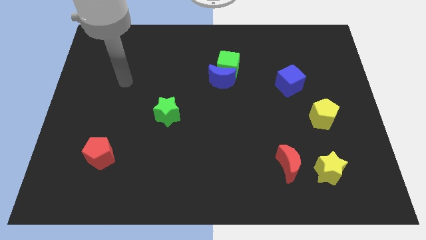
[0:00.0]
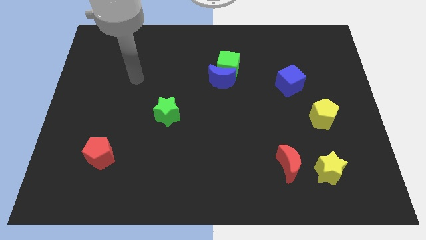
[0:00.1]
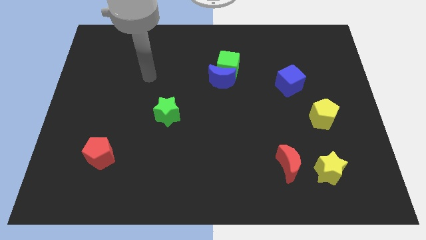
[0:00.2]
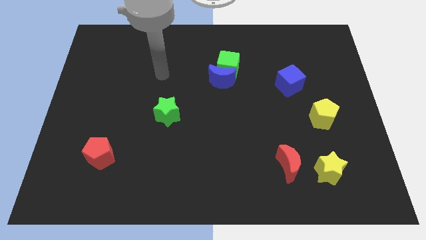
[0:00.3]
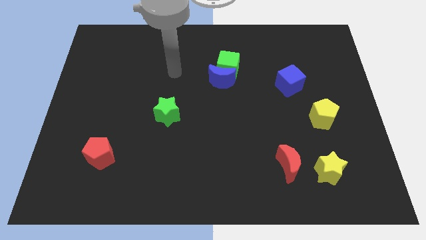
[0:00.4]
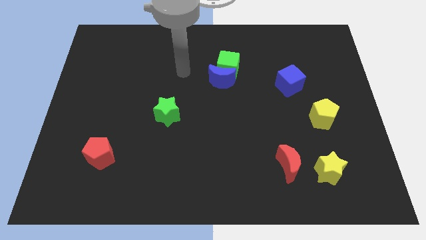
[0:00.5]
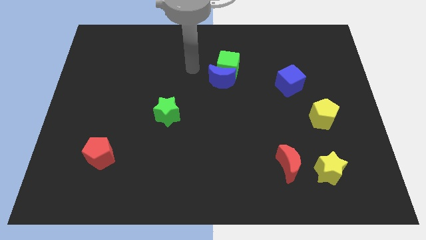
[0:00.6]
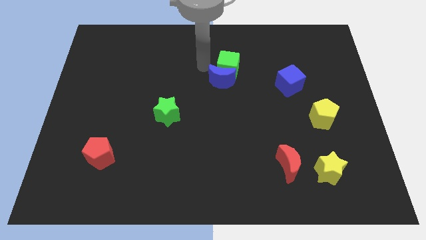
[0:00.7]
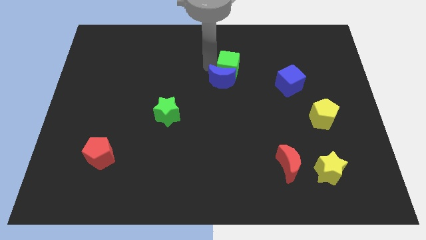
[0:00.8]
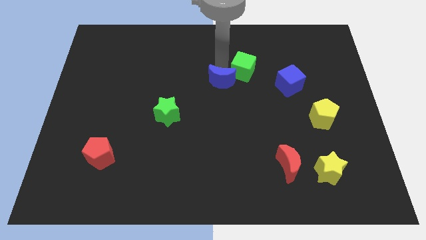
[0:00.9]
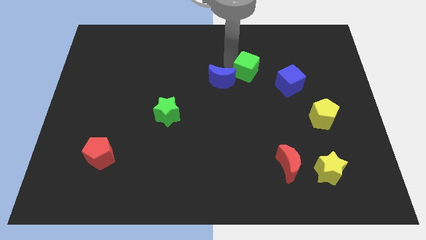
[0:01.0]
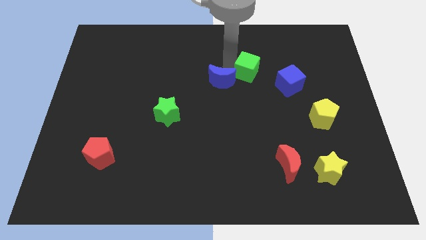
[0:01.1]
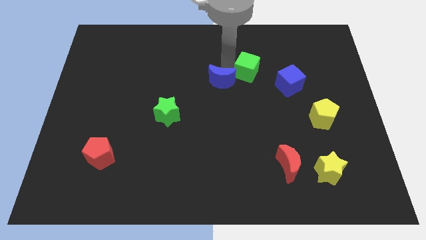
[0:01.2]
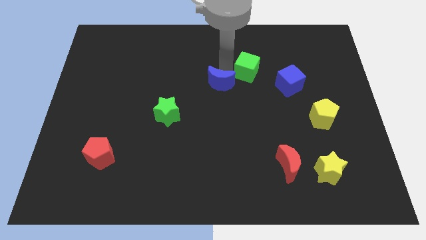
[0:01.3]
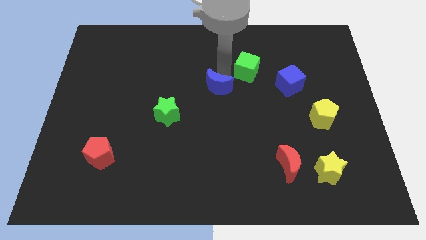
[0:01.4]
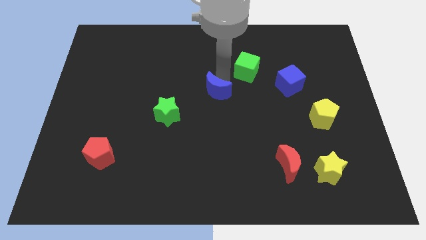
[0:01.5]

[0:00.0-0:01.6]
pull the blue moon apart from the green cube

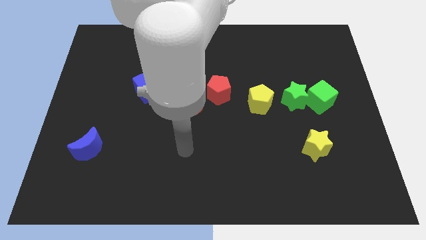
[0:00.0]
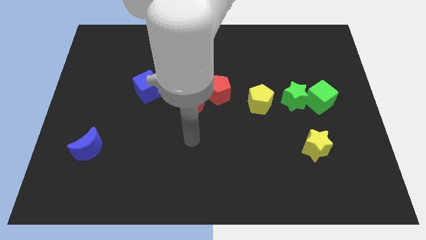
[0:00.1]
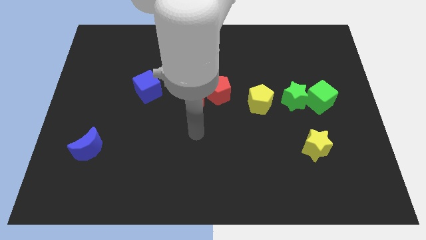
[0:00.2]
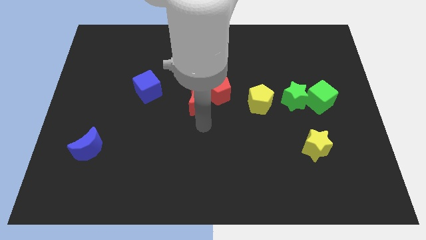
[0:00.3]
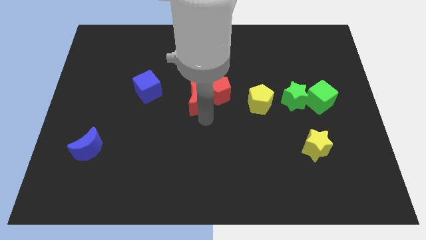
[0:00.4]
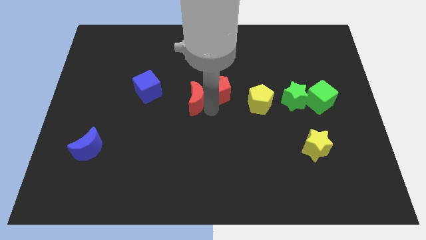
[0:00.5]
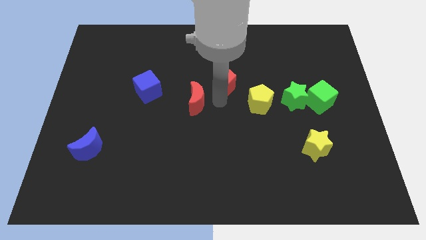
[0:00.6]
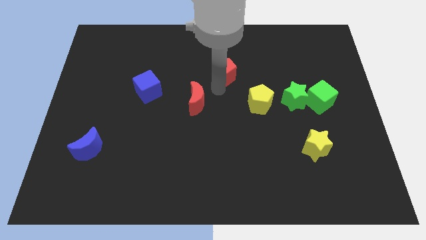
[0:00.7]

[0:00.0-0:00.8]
pull the red moon apart from the red pentagon

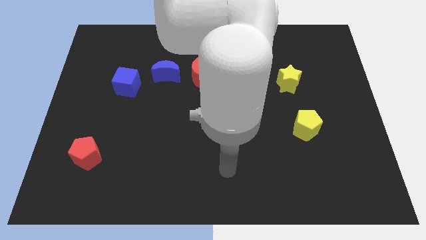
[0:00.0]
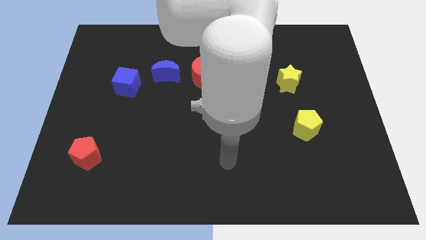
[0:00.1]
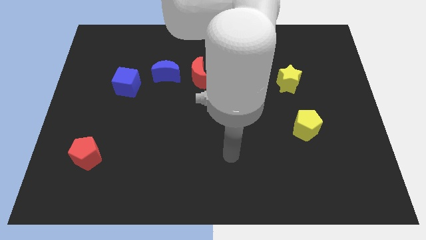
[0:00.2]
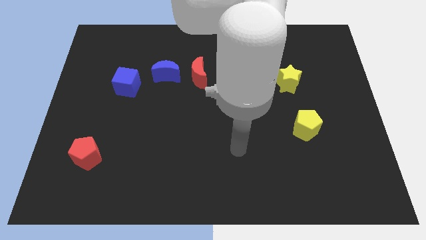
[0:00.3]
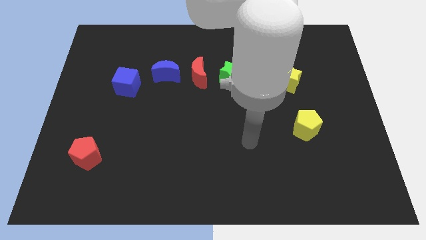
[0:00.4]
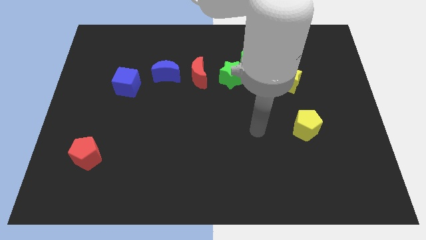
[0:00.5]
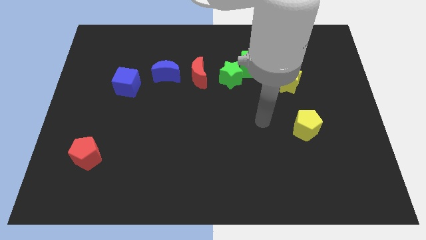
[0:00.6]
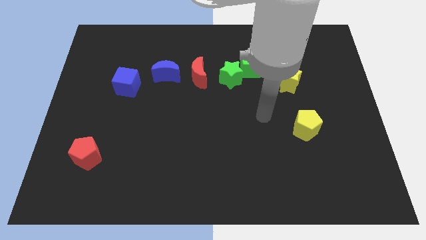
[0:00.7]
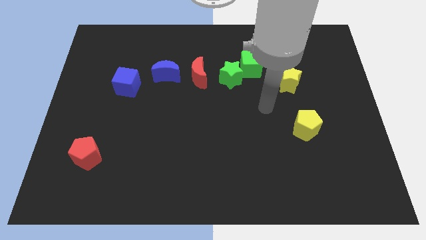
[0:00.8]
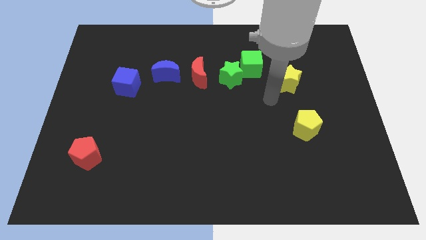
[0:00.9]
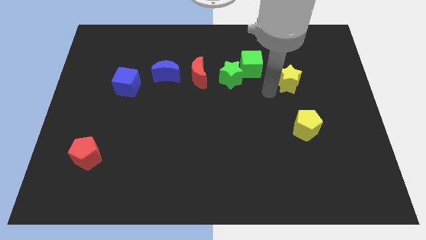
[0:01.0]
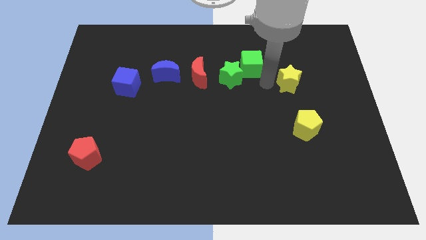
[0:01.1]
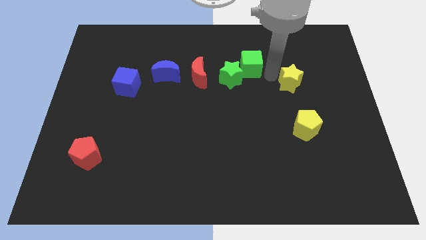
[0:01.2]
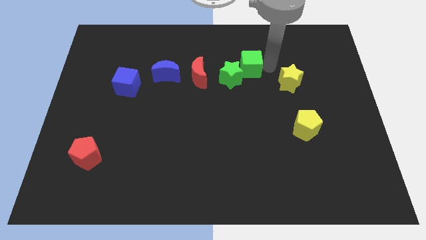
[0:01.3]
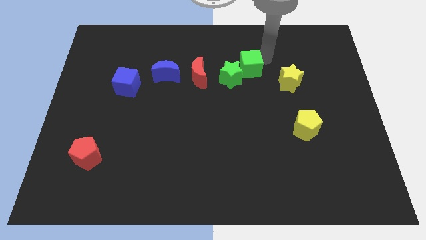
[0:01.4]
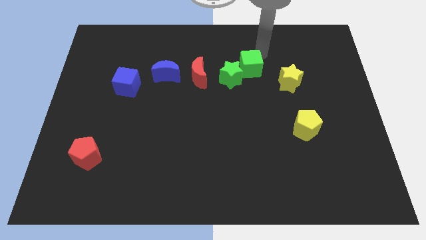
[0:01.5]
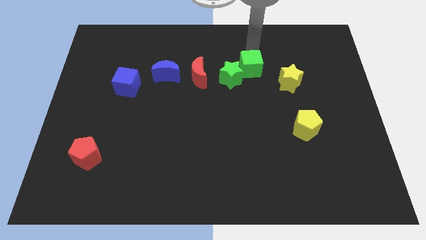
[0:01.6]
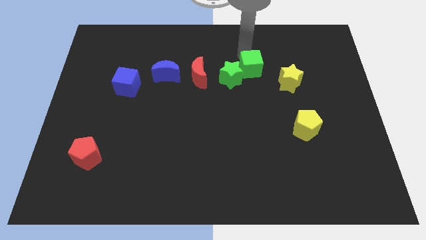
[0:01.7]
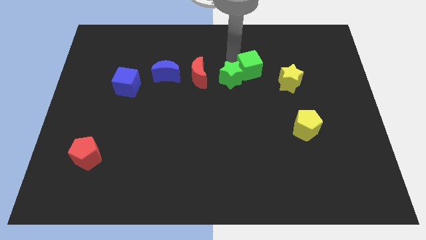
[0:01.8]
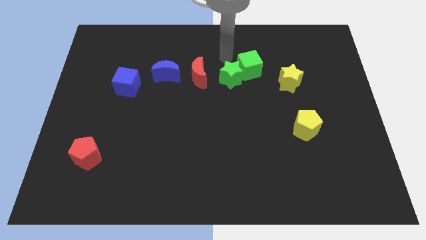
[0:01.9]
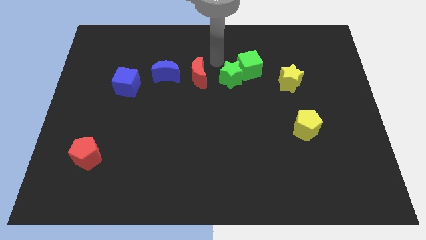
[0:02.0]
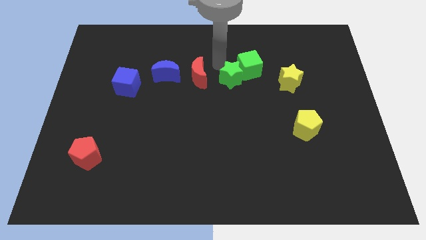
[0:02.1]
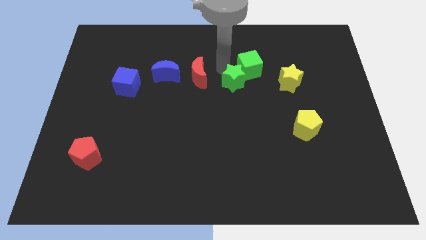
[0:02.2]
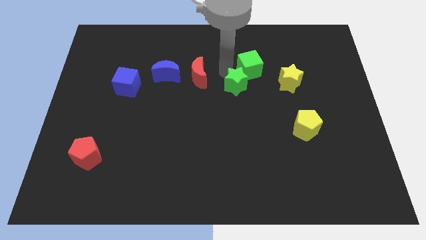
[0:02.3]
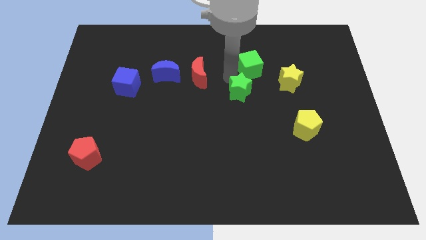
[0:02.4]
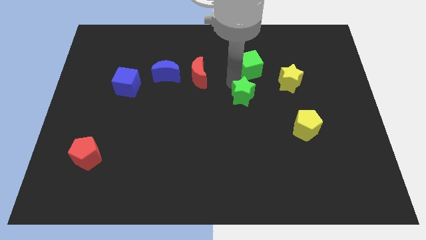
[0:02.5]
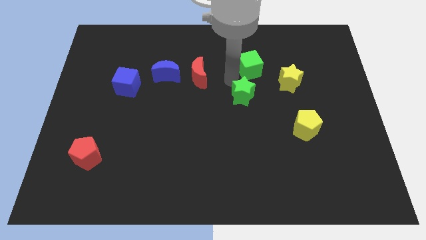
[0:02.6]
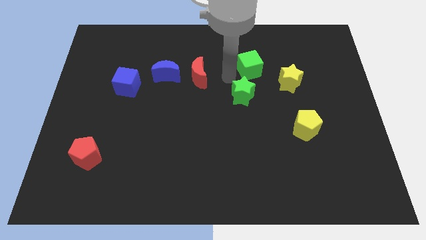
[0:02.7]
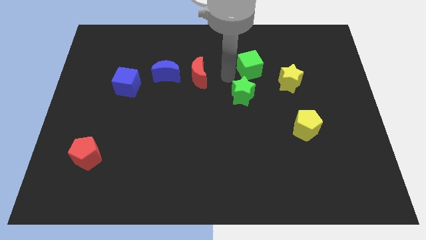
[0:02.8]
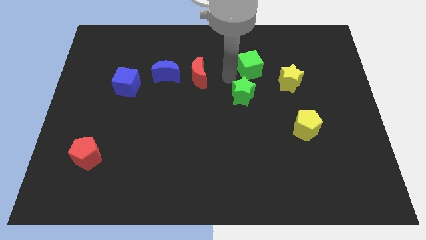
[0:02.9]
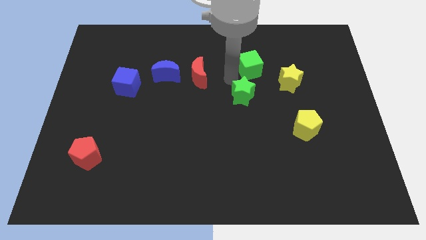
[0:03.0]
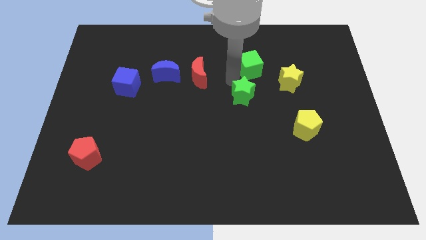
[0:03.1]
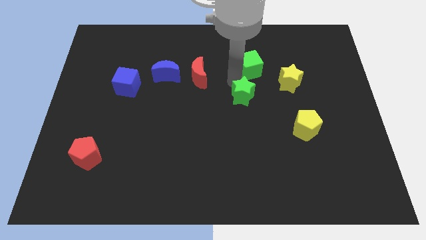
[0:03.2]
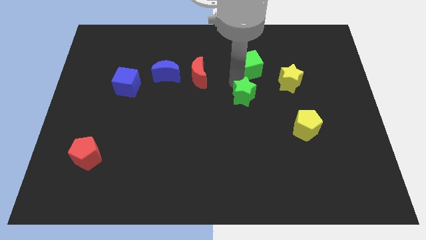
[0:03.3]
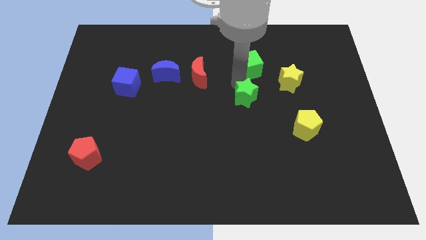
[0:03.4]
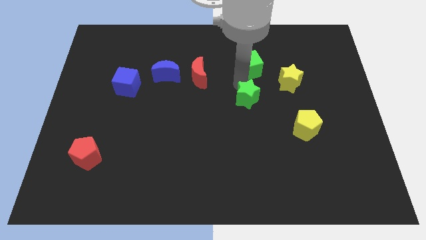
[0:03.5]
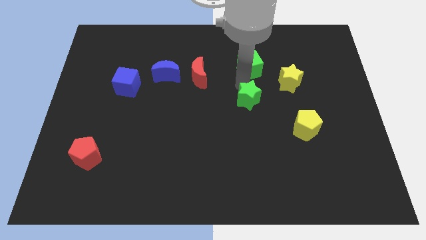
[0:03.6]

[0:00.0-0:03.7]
move the green star away from the green cube and red moon

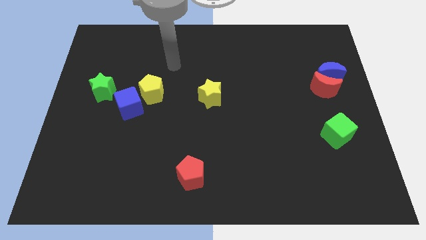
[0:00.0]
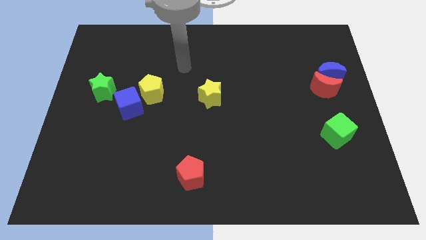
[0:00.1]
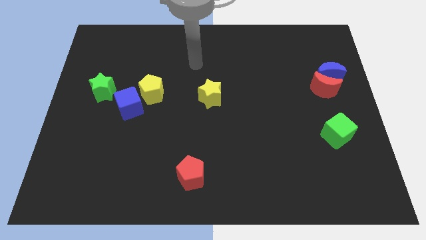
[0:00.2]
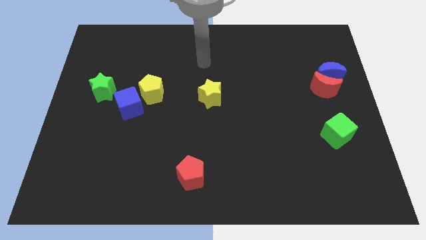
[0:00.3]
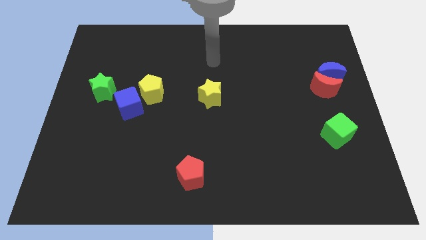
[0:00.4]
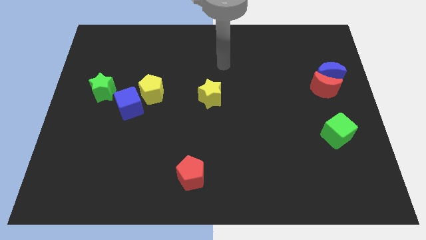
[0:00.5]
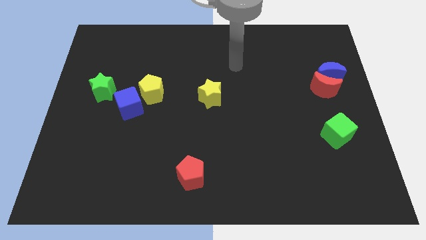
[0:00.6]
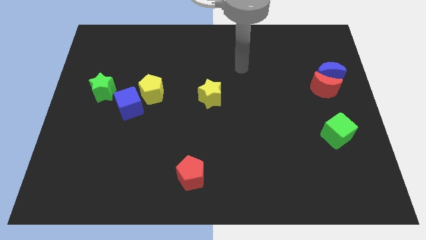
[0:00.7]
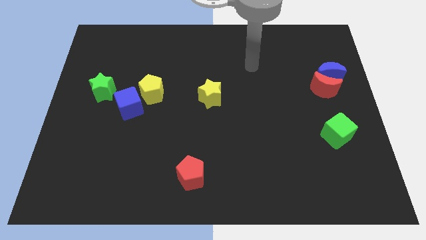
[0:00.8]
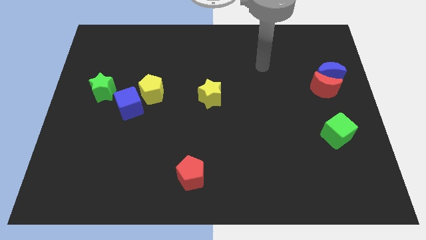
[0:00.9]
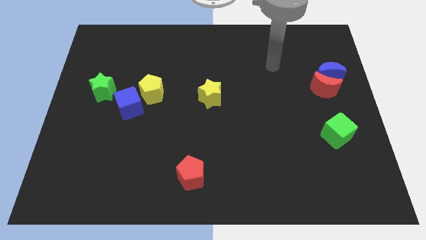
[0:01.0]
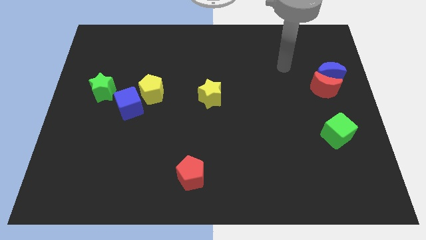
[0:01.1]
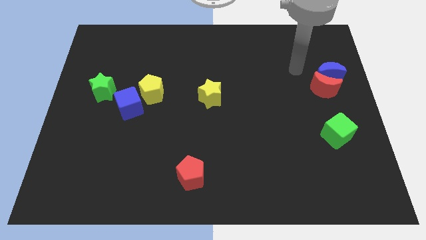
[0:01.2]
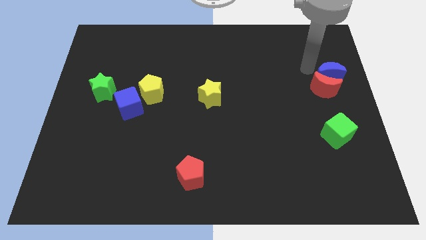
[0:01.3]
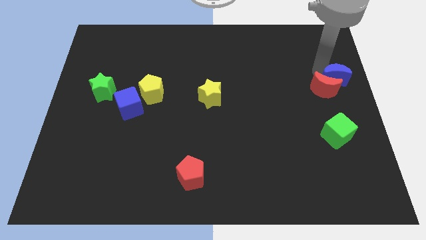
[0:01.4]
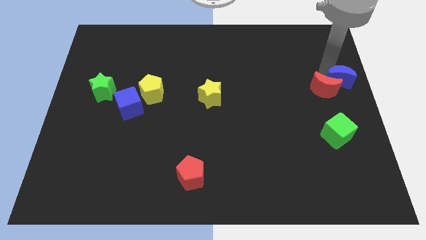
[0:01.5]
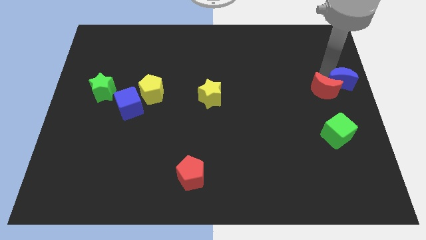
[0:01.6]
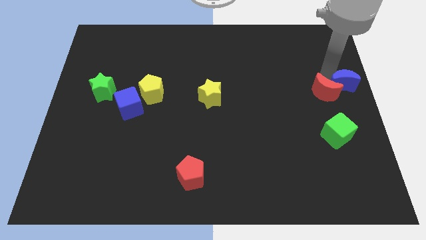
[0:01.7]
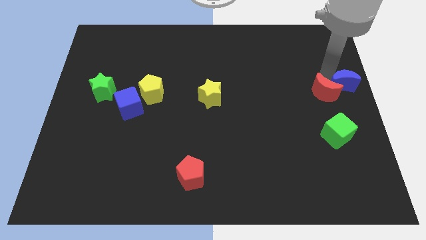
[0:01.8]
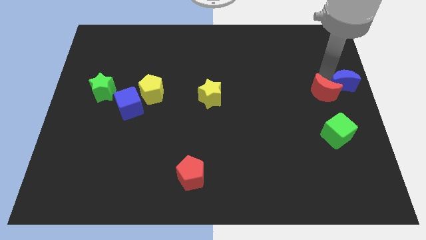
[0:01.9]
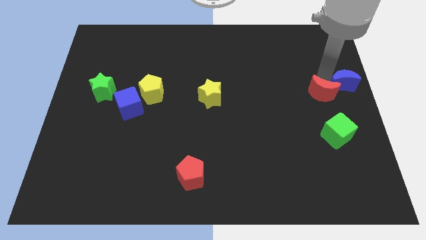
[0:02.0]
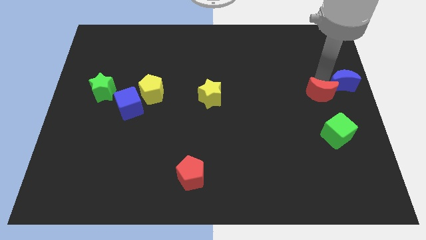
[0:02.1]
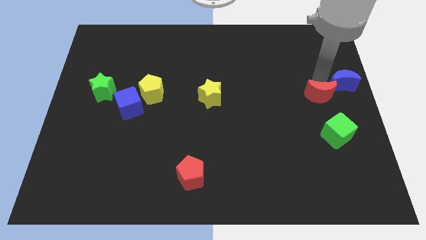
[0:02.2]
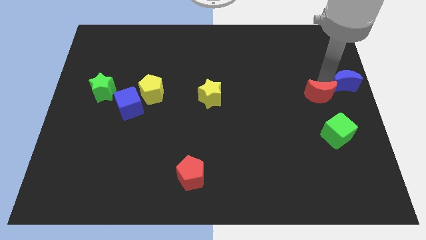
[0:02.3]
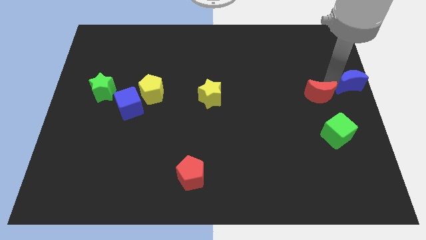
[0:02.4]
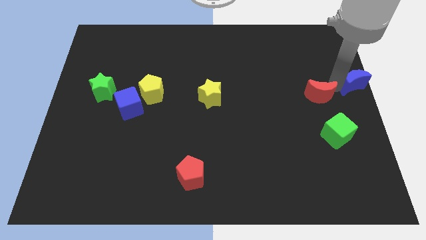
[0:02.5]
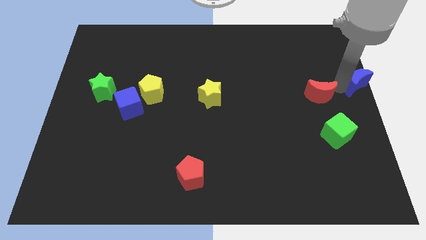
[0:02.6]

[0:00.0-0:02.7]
pull the red moon apart from the blue moon

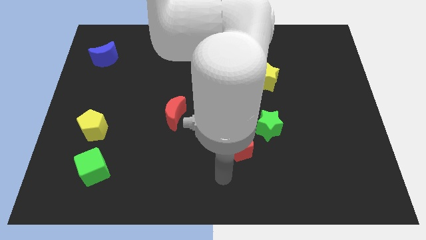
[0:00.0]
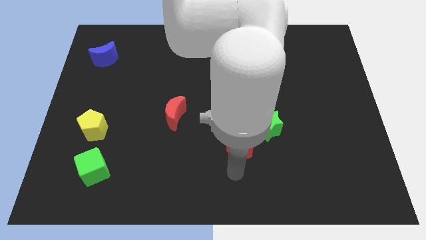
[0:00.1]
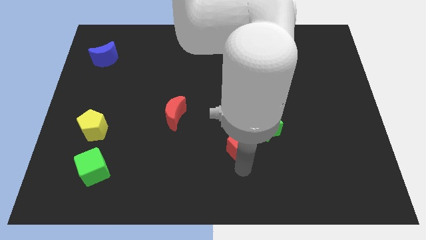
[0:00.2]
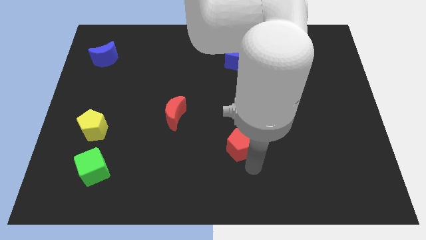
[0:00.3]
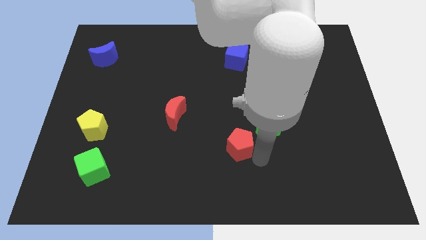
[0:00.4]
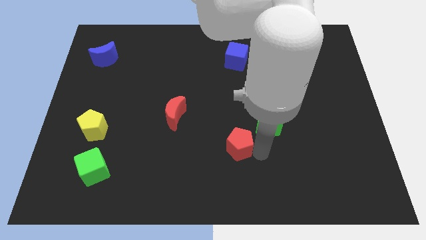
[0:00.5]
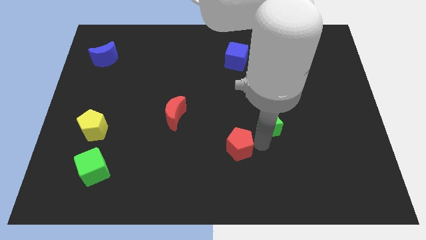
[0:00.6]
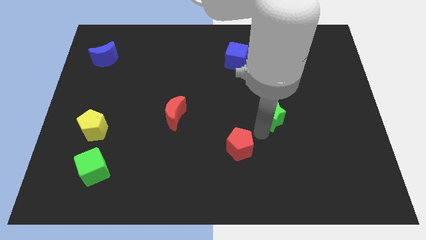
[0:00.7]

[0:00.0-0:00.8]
separate the red pentagon from the green star
